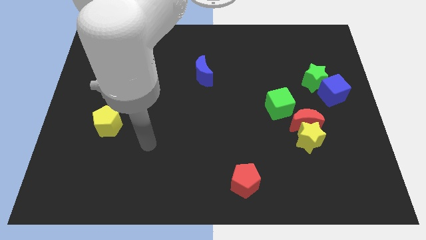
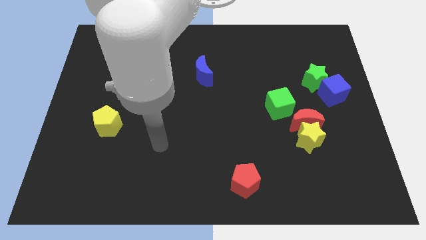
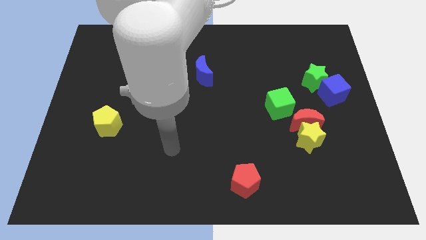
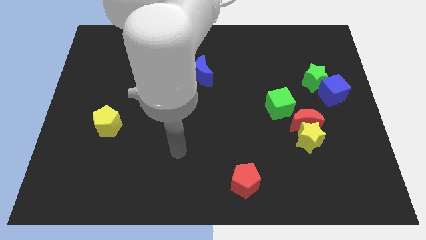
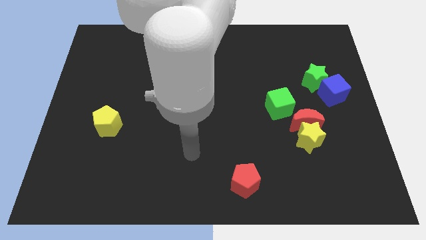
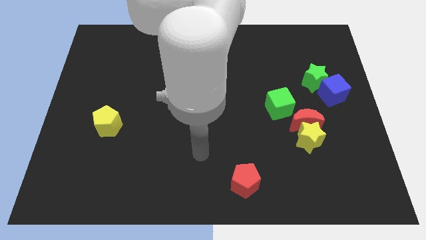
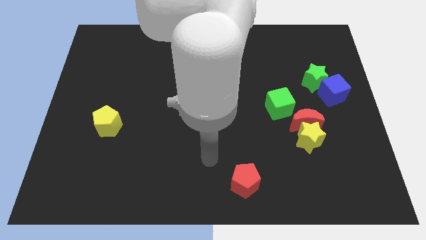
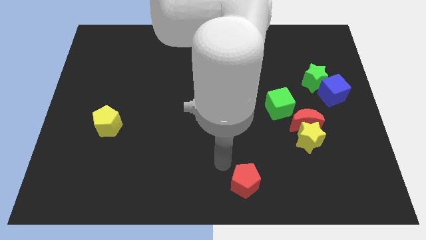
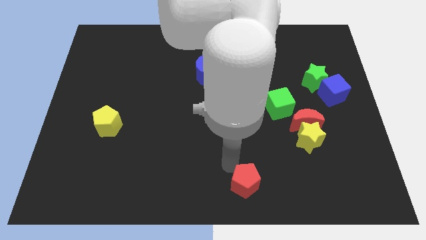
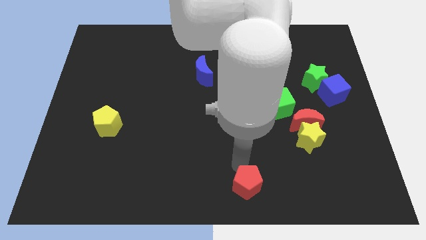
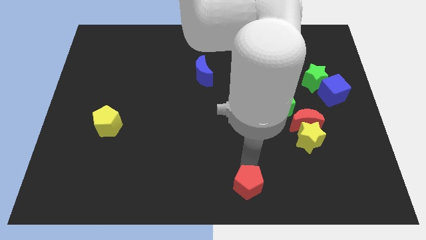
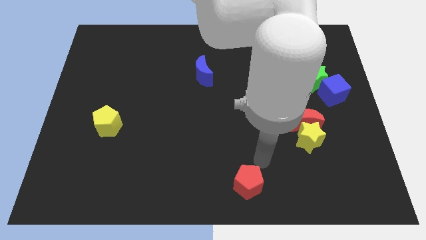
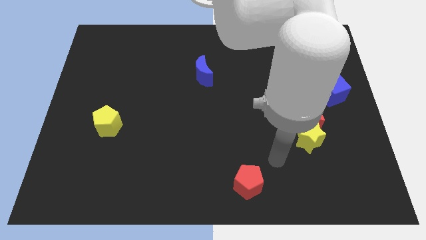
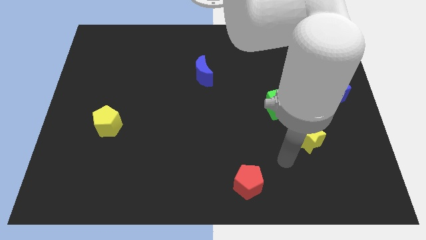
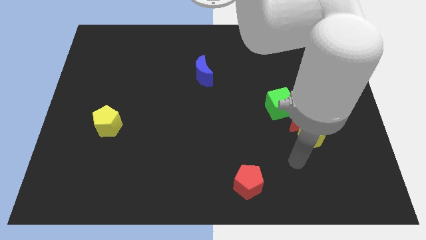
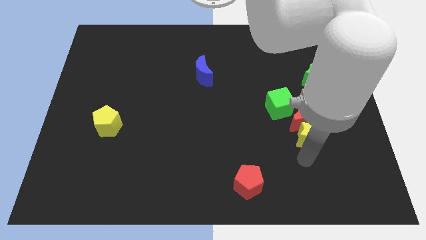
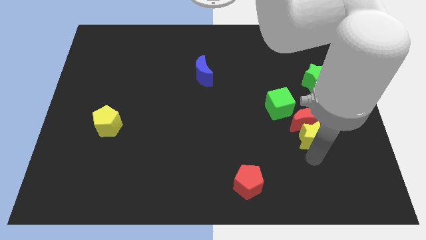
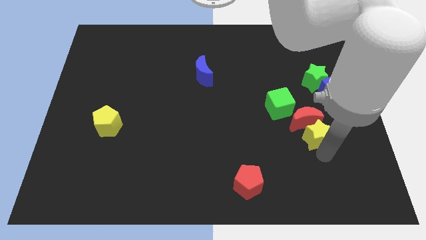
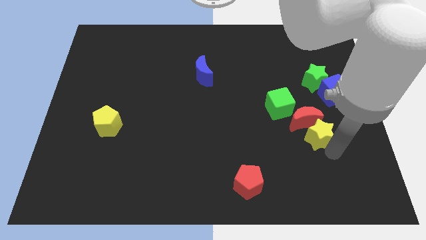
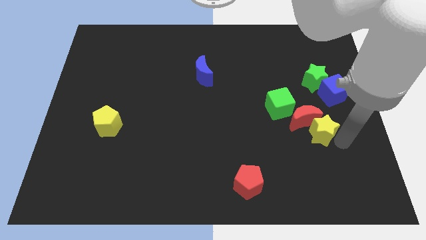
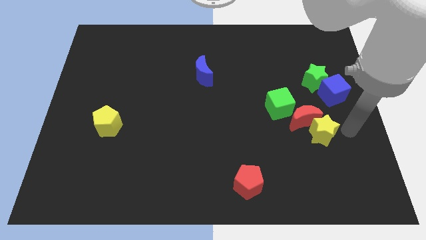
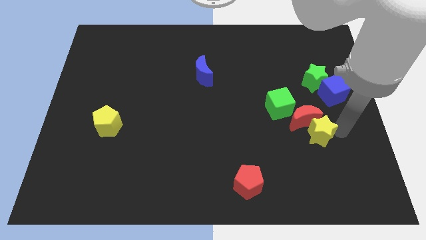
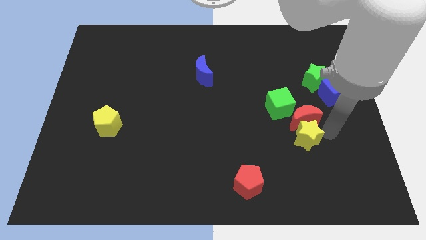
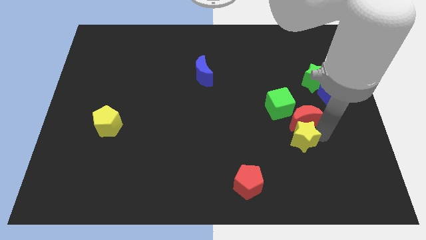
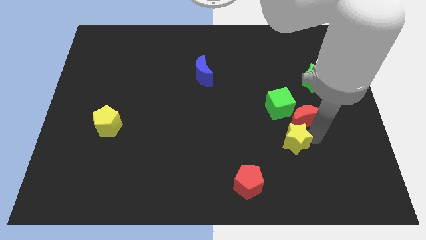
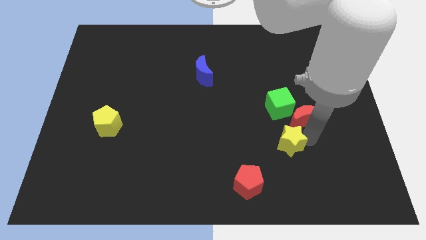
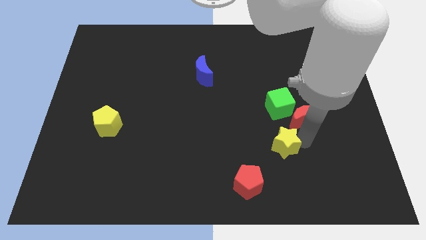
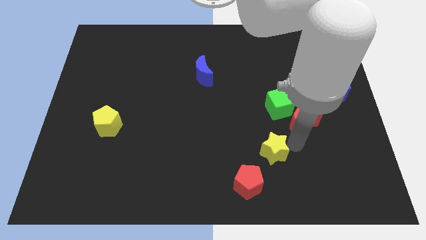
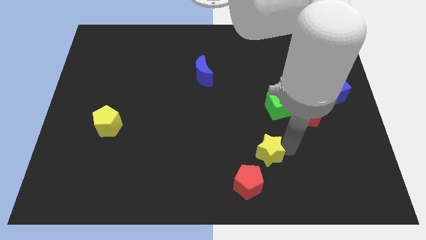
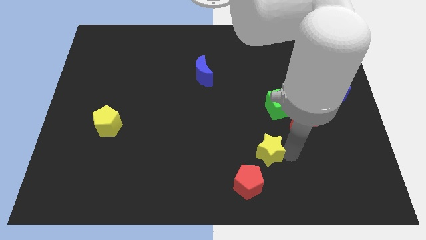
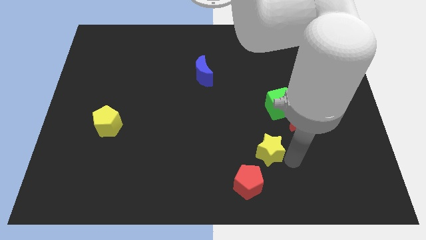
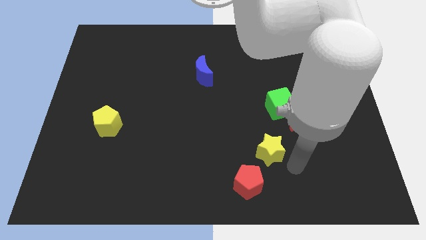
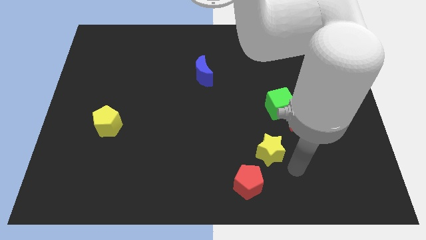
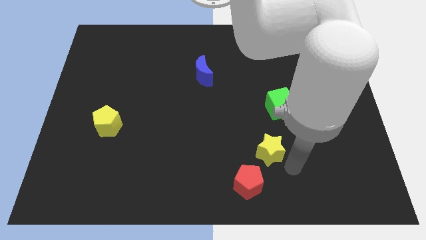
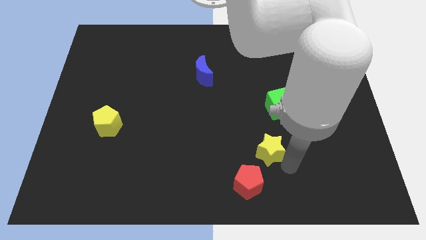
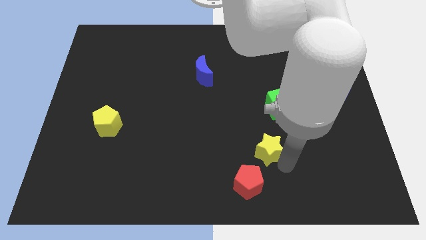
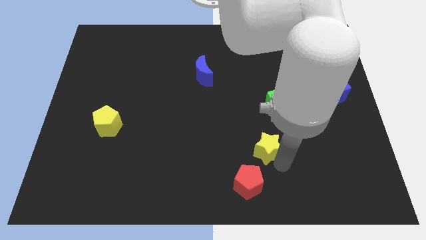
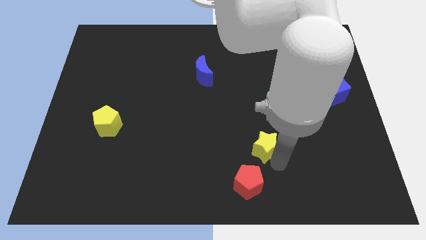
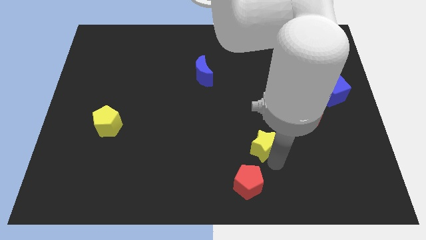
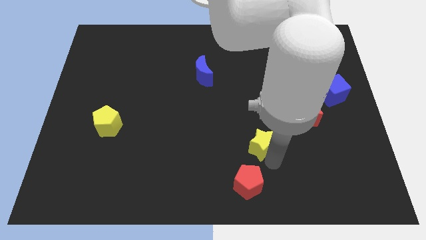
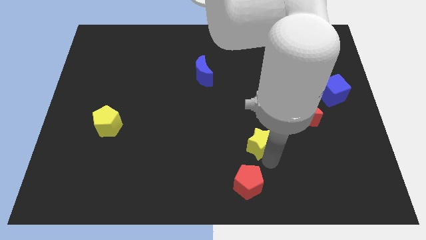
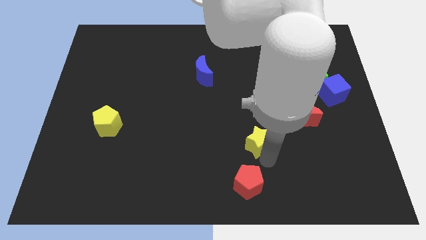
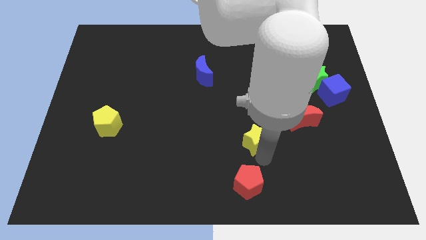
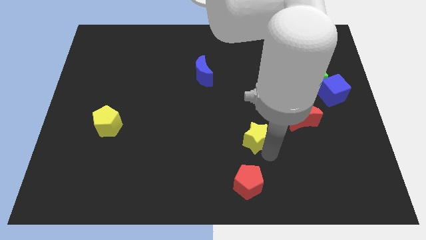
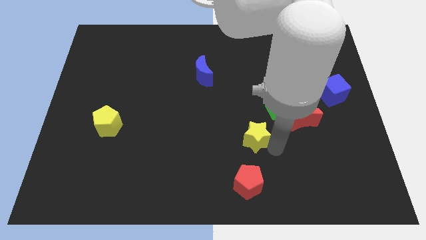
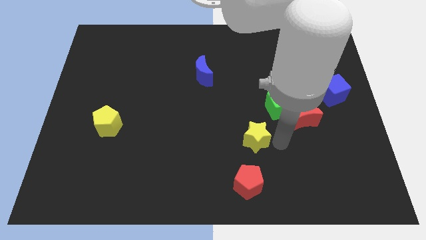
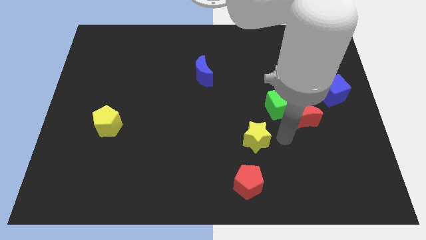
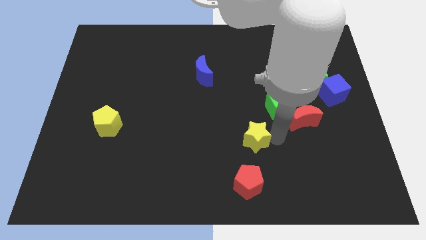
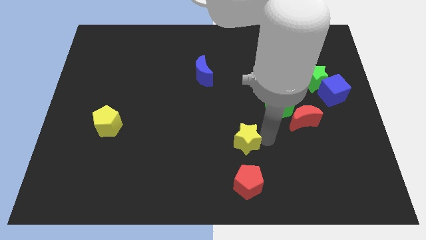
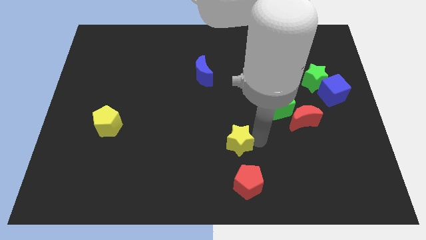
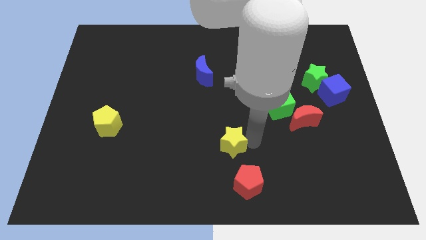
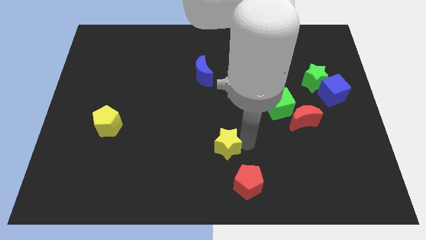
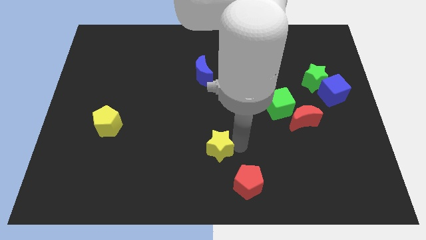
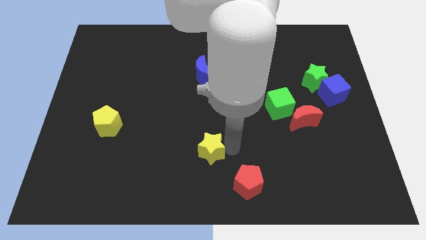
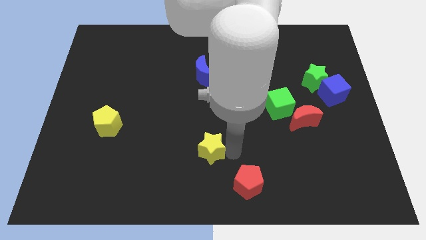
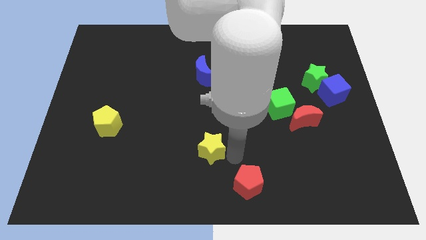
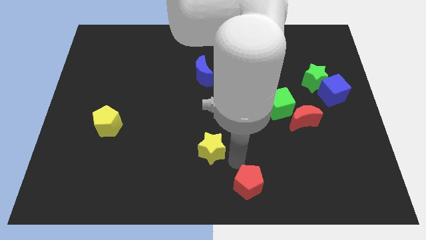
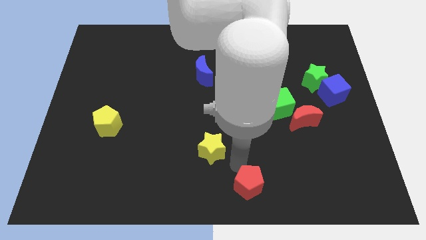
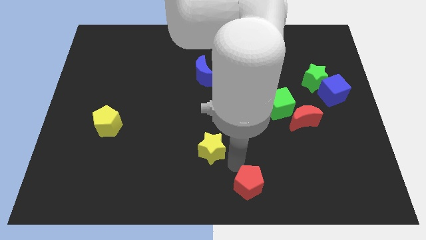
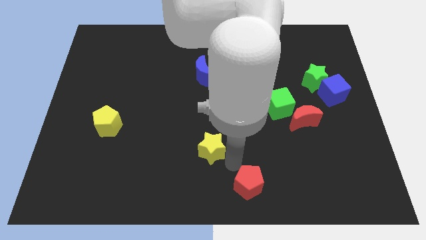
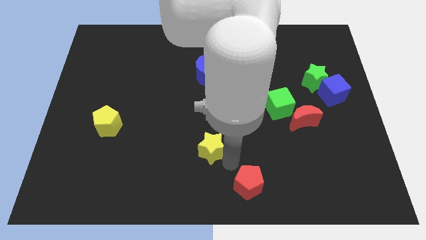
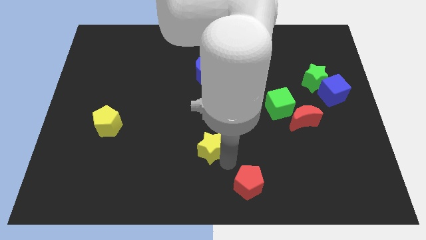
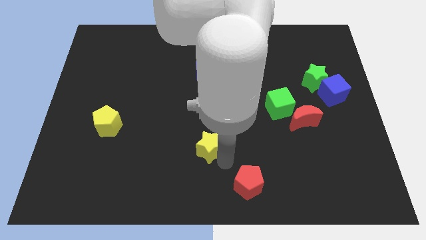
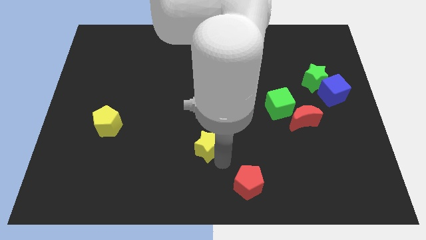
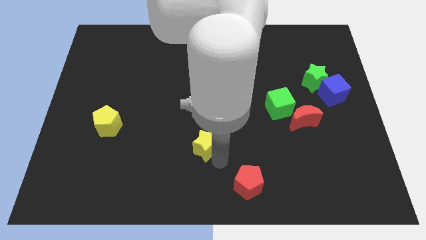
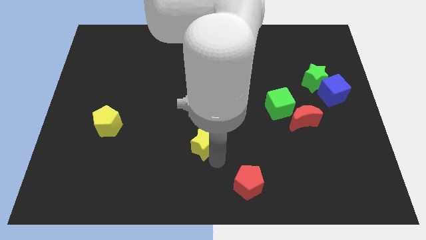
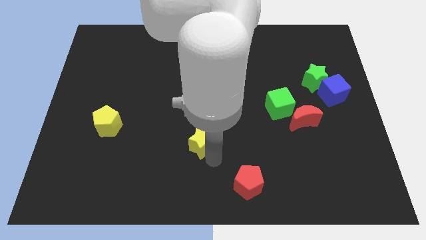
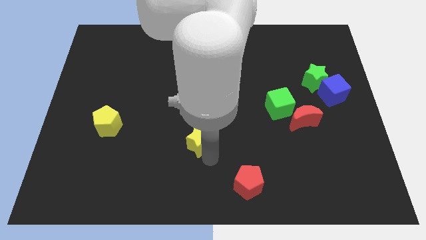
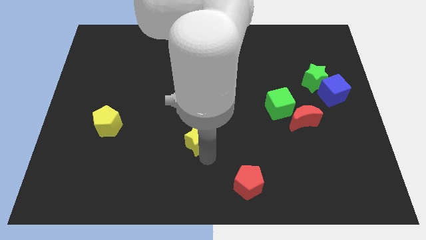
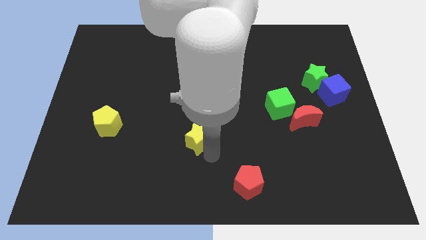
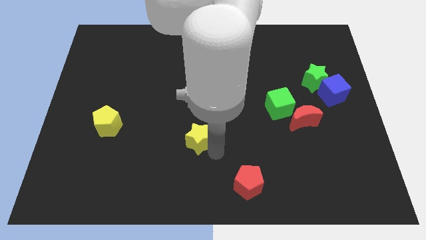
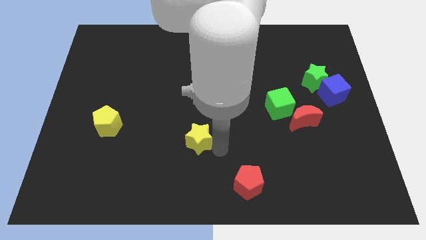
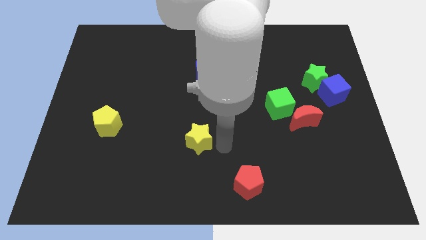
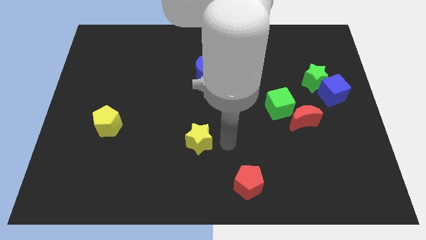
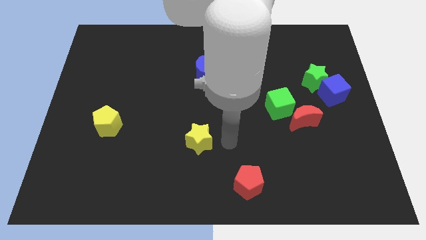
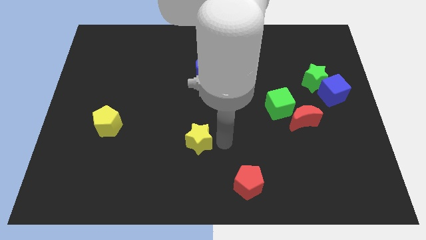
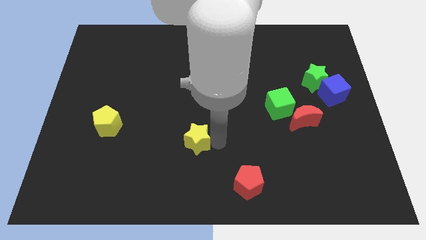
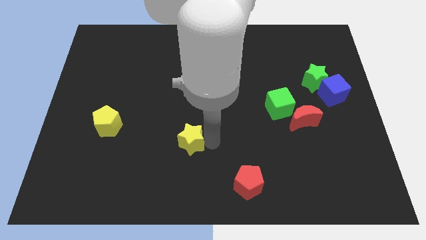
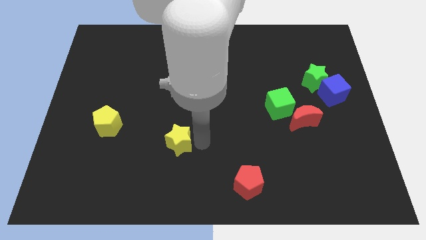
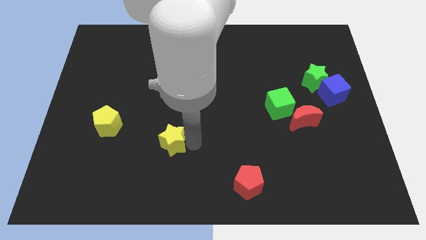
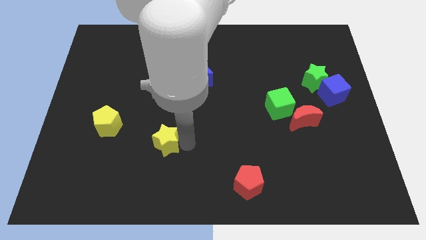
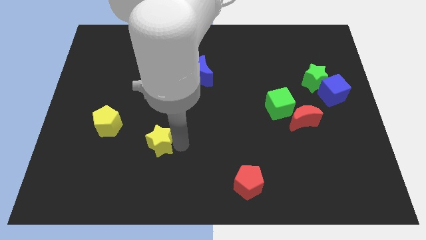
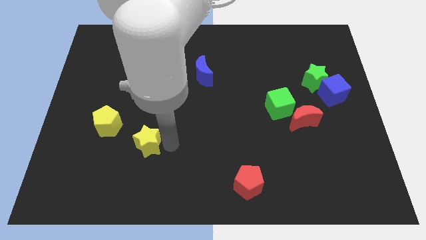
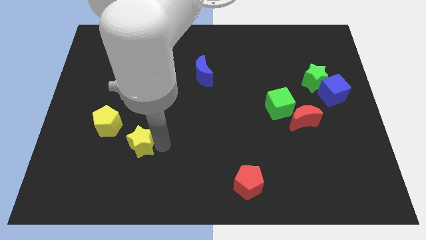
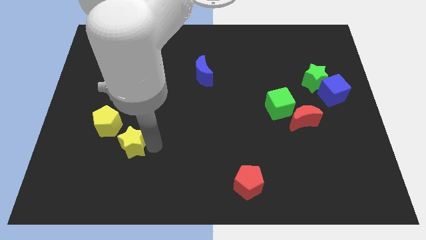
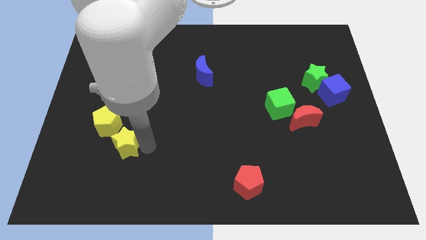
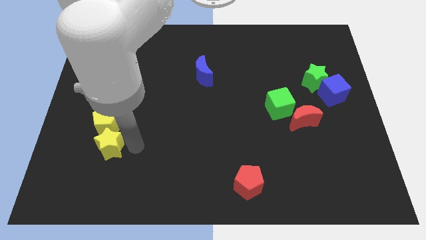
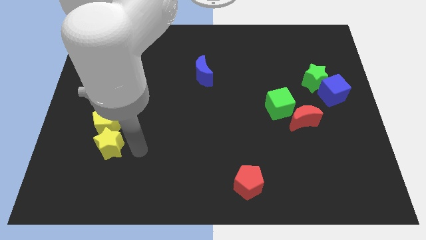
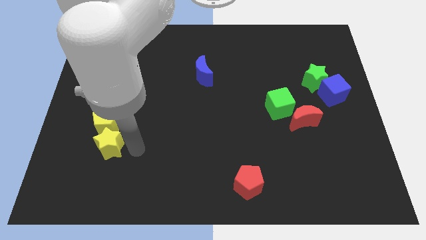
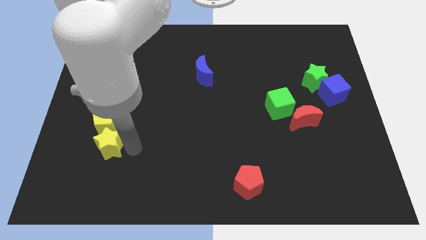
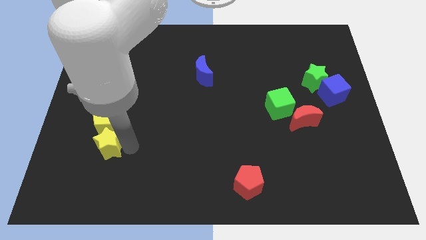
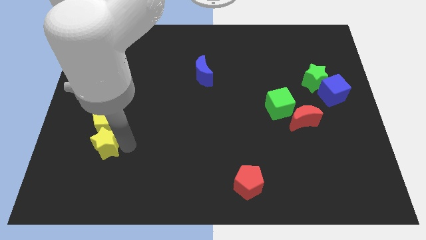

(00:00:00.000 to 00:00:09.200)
push the yellow star to the bottom left of the yellow pentagon
